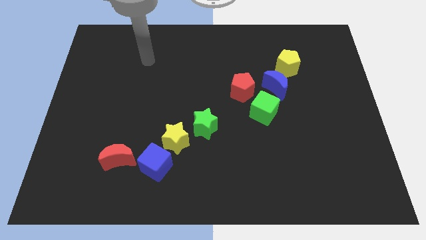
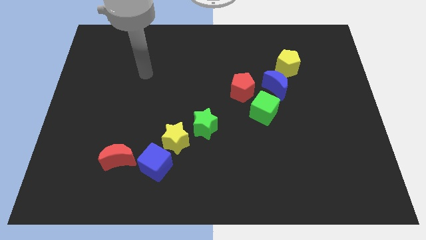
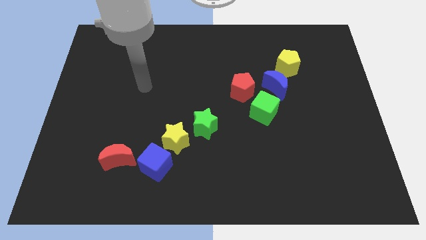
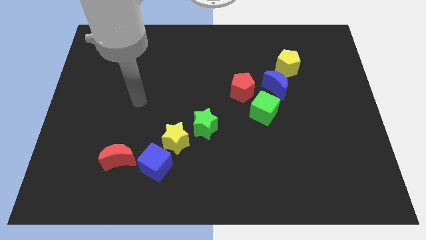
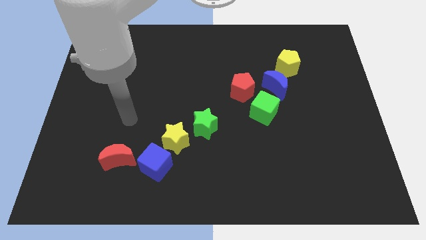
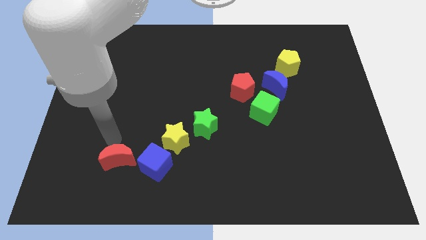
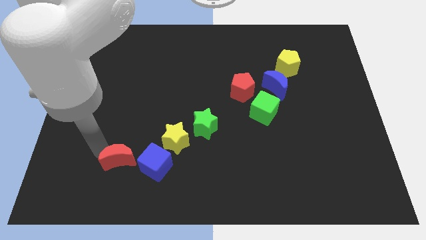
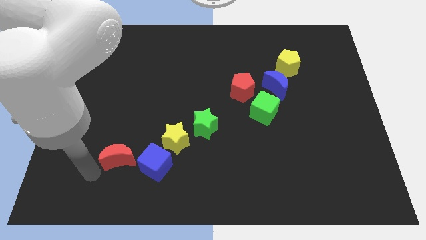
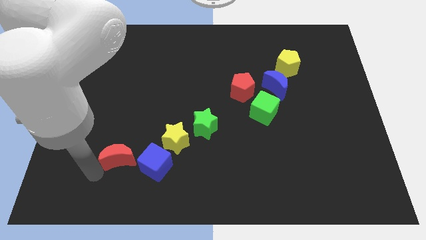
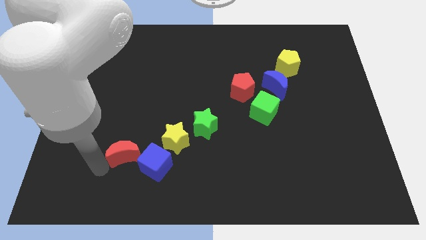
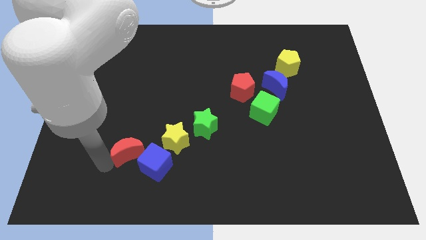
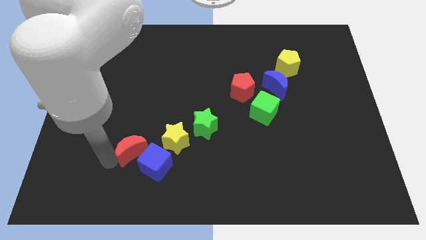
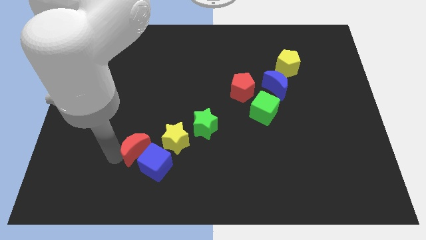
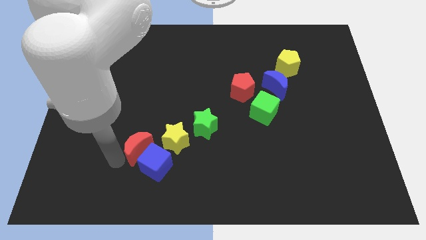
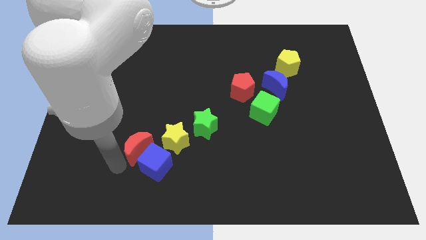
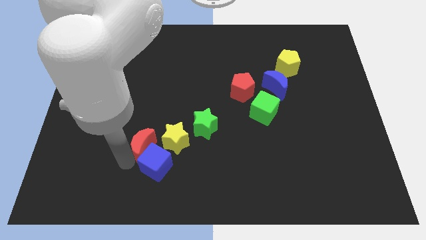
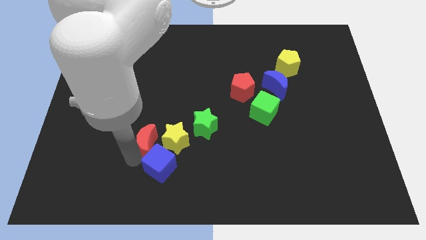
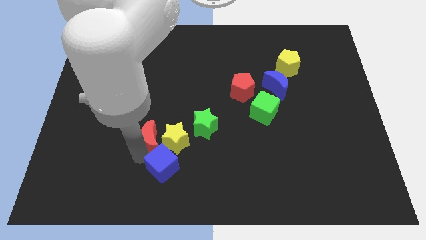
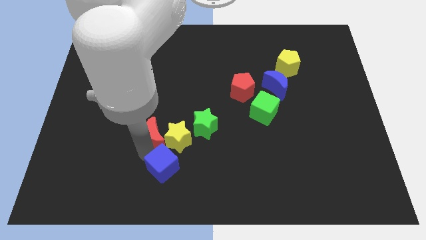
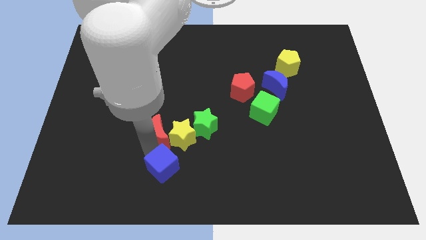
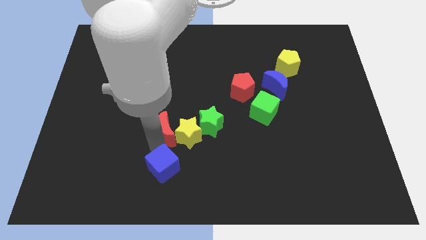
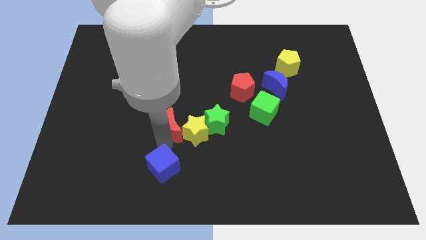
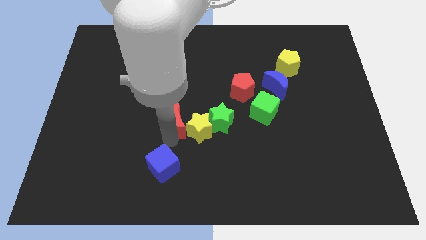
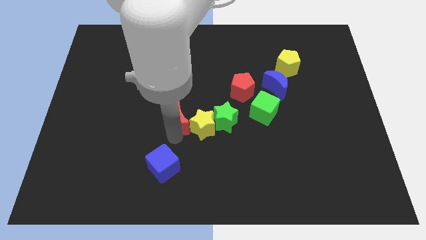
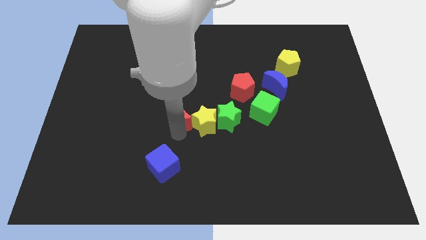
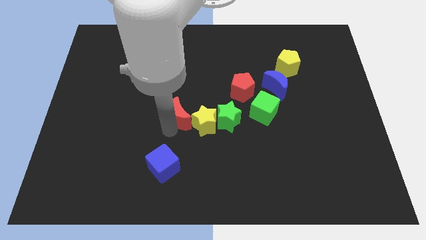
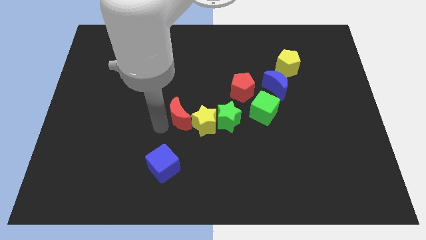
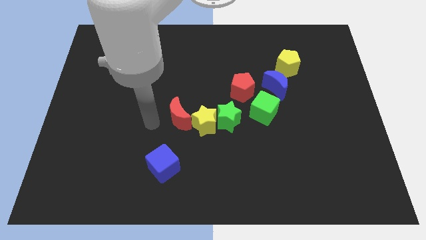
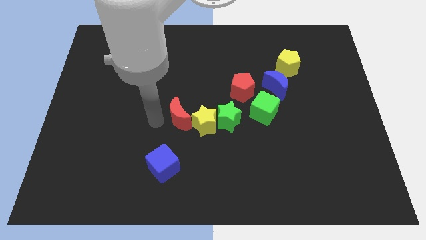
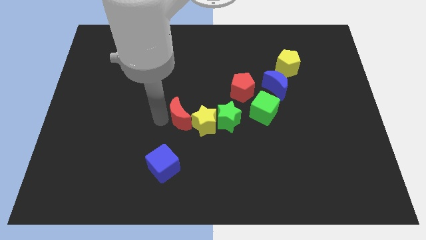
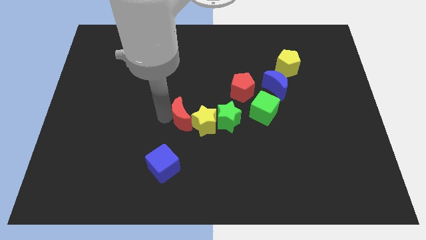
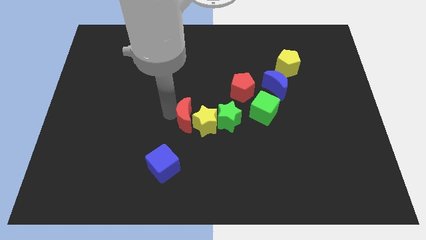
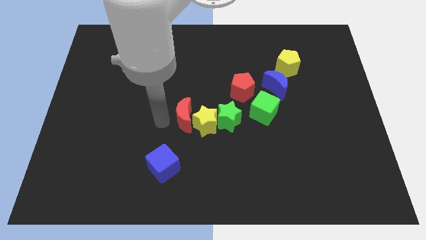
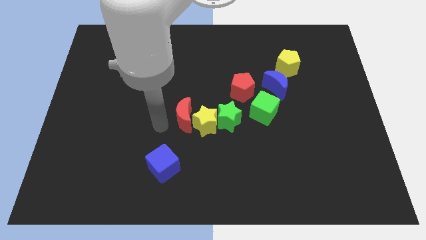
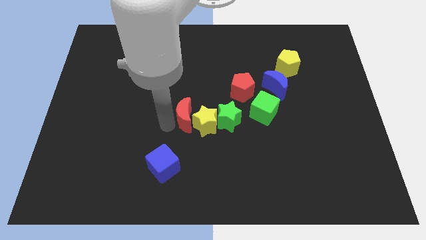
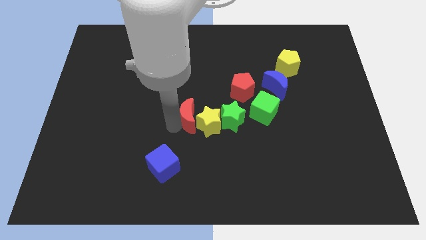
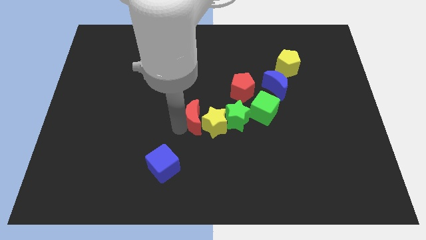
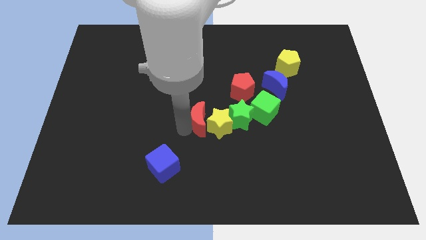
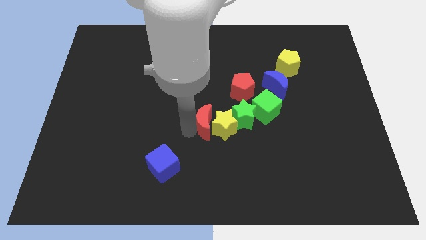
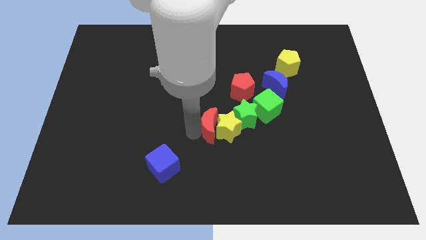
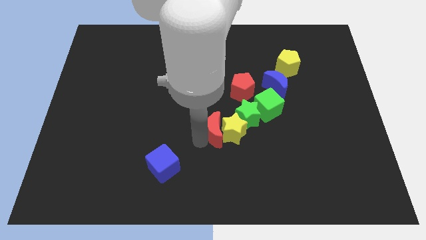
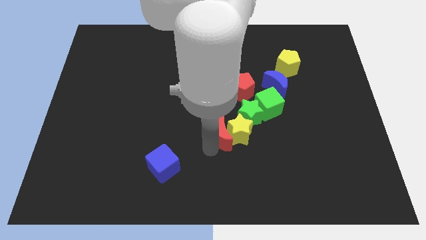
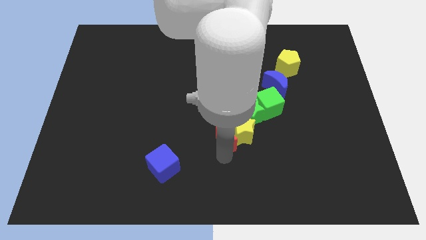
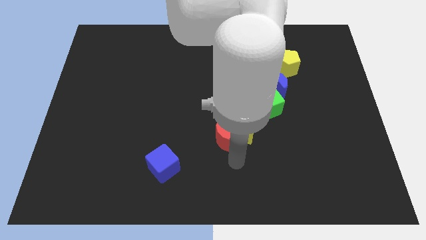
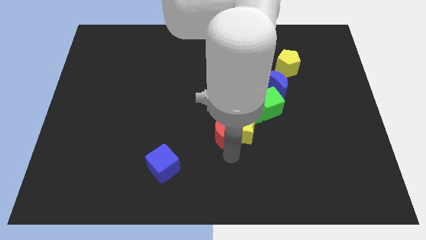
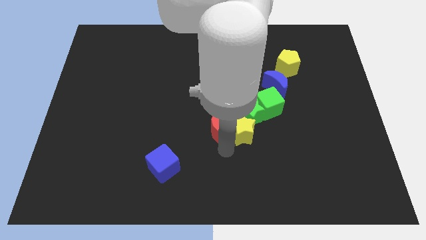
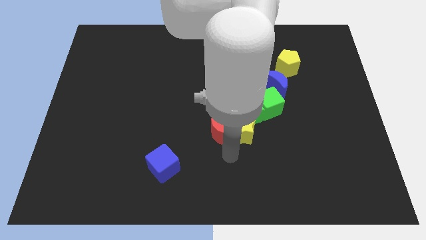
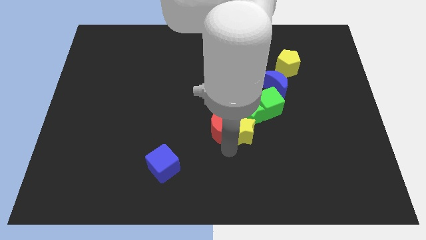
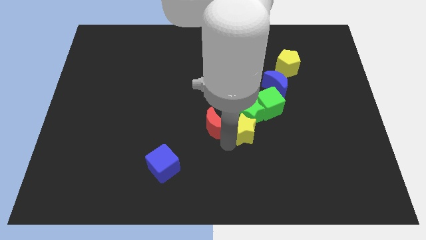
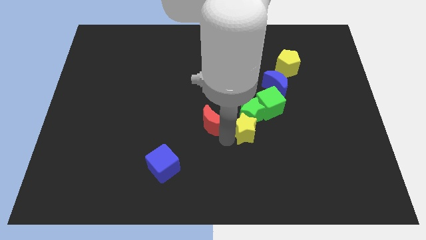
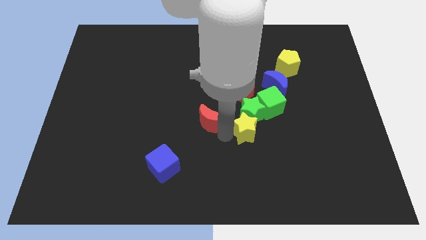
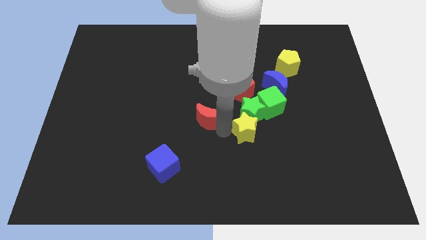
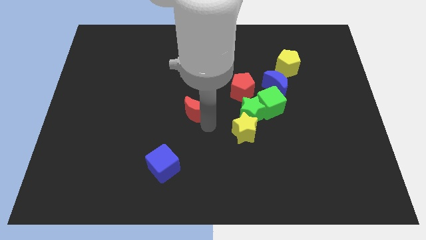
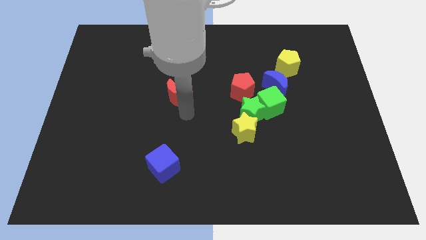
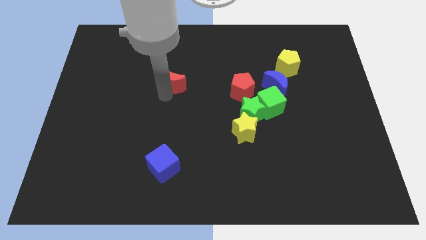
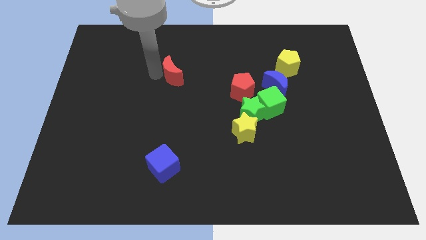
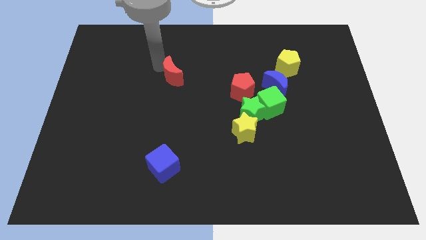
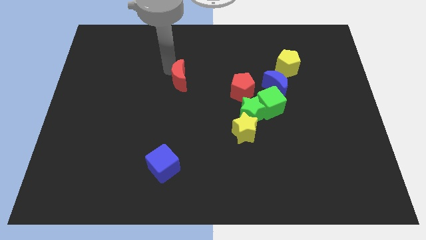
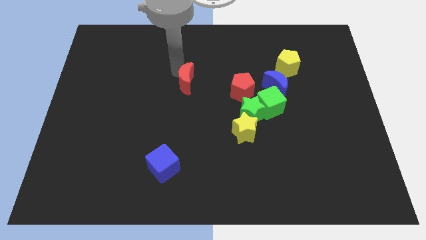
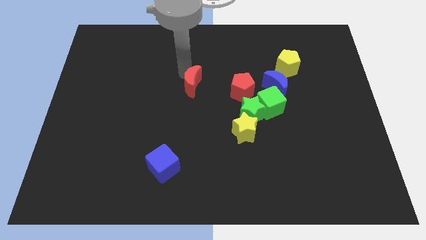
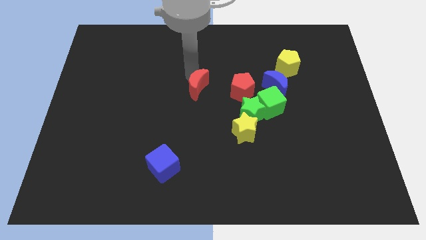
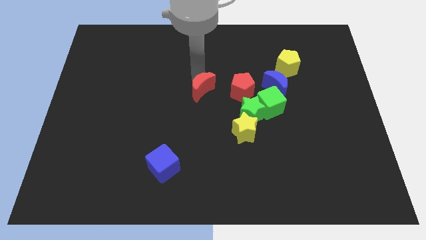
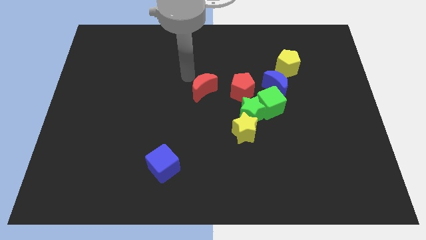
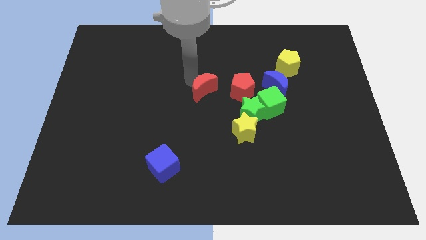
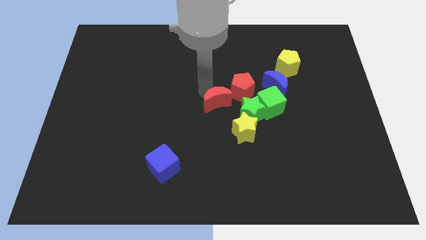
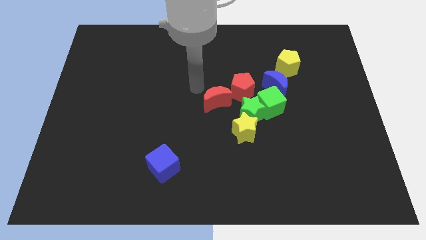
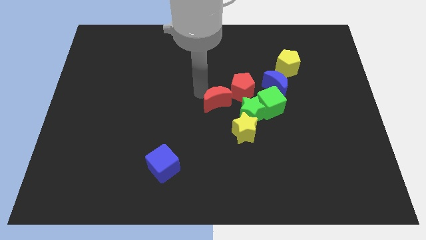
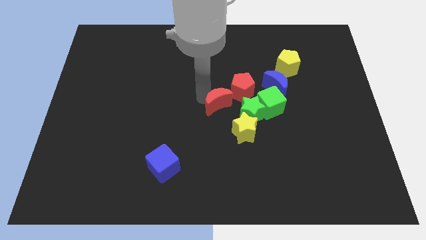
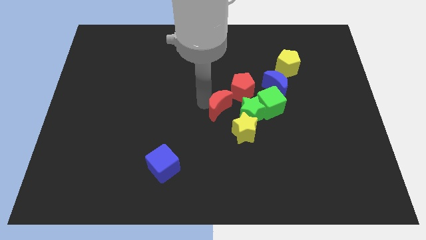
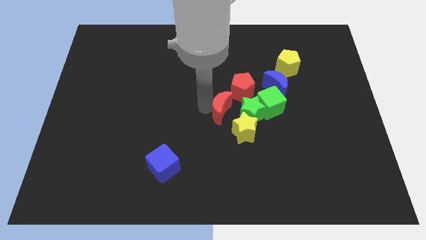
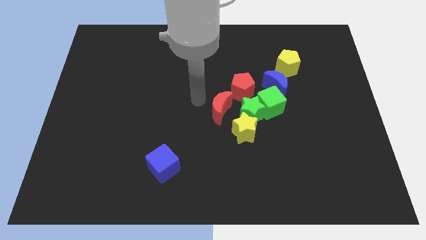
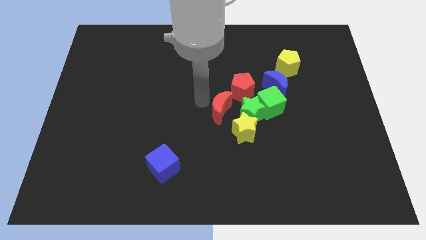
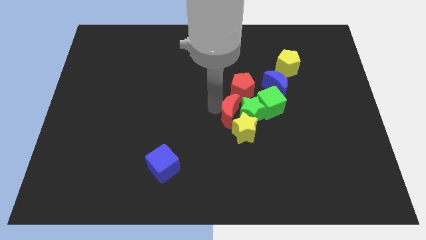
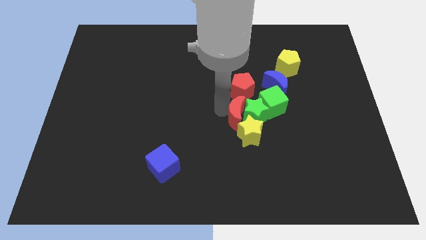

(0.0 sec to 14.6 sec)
move the red moon diagonally down and to the left of the green cube

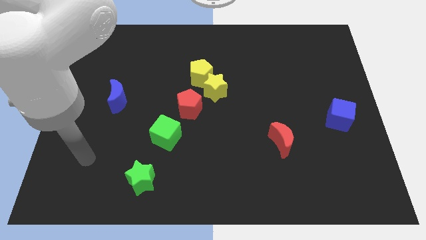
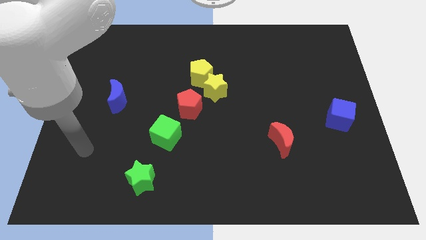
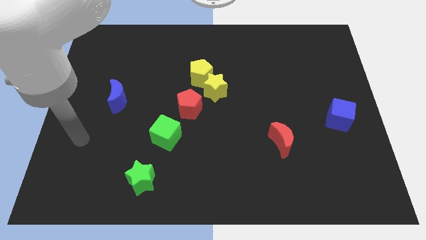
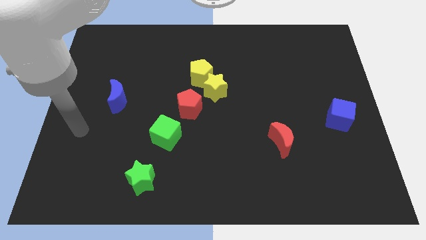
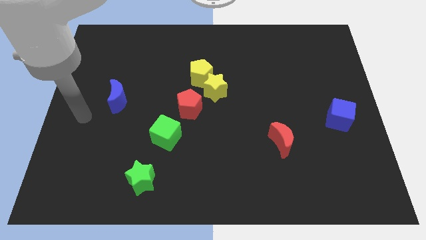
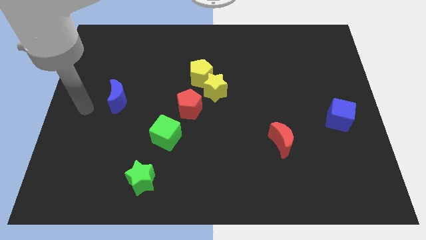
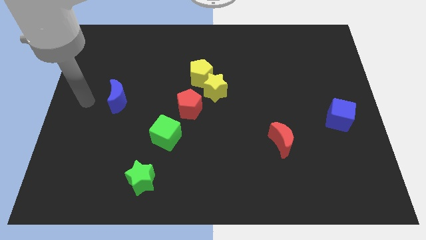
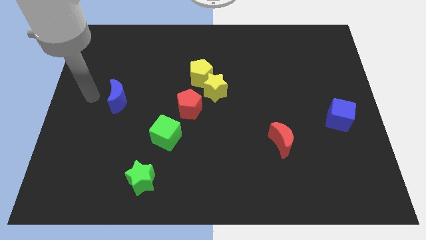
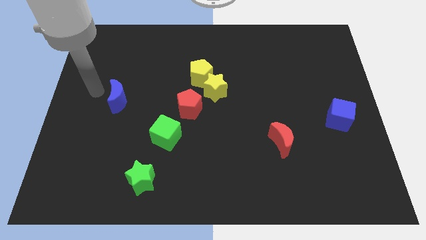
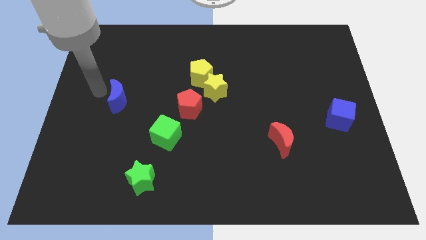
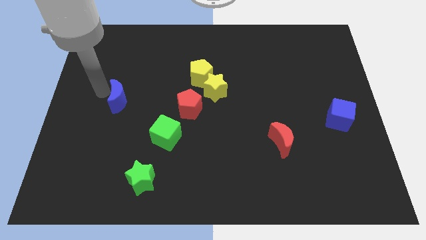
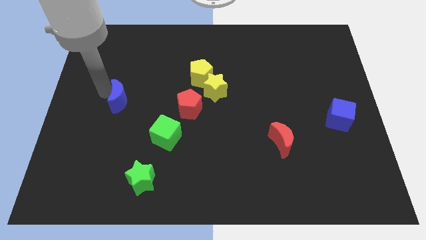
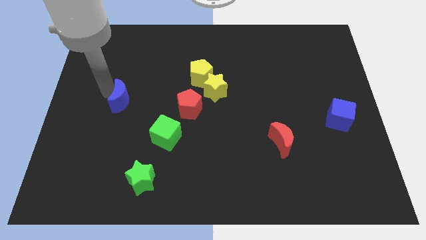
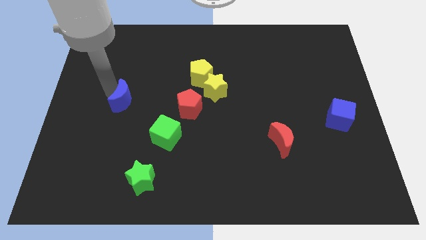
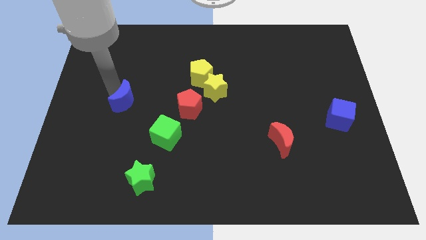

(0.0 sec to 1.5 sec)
push the blue moon left of the red pentagon
